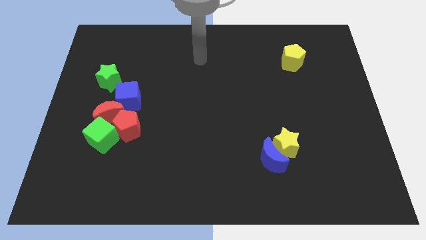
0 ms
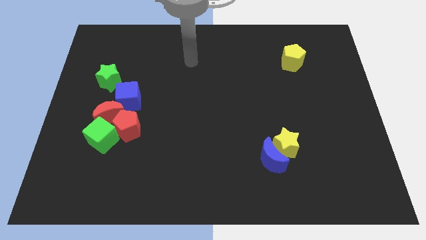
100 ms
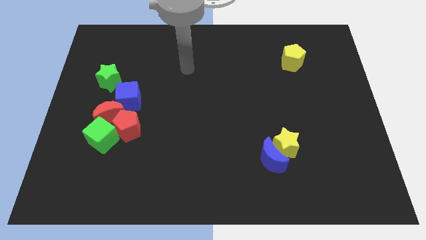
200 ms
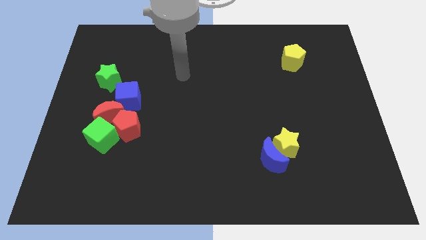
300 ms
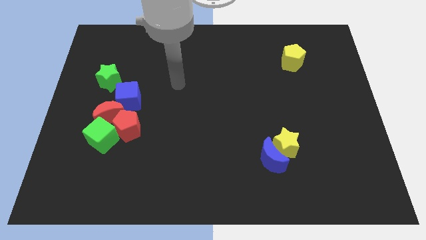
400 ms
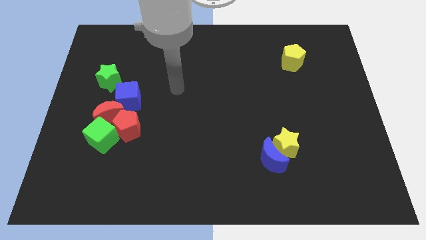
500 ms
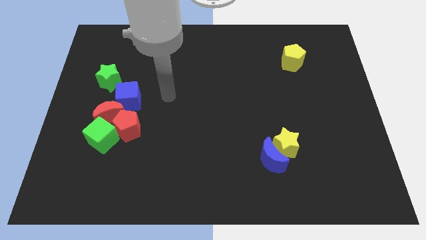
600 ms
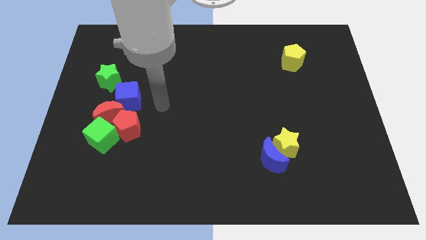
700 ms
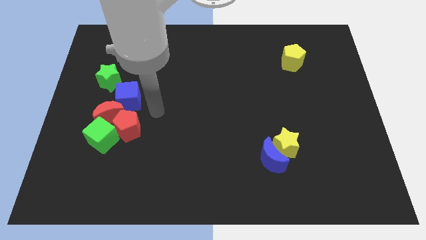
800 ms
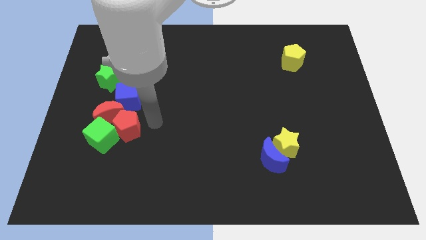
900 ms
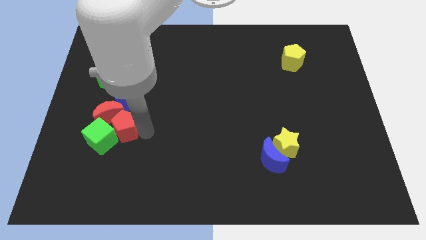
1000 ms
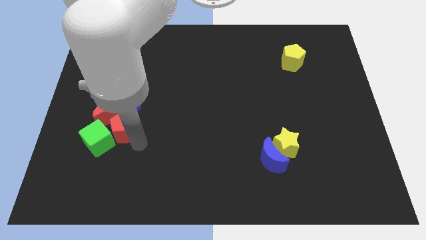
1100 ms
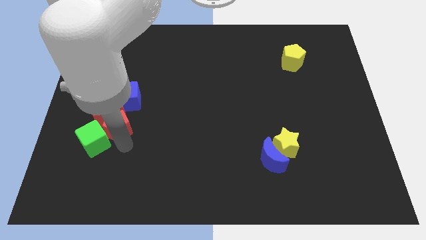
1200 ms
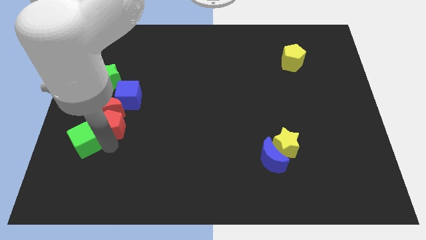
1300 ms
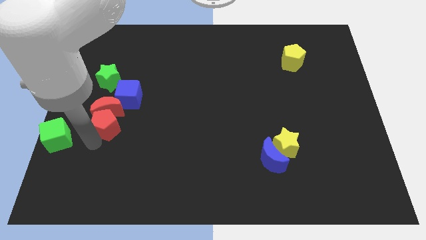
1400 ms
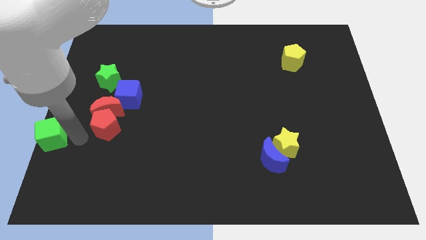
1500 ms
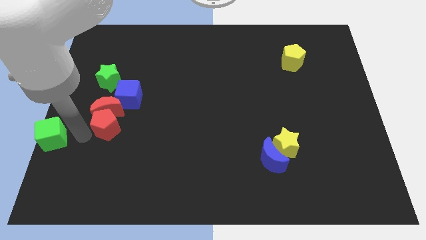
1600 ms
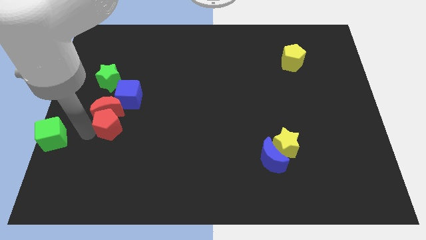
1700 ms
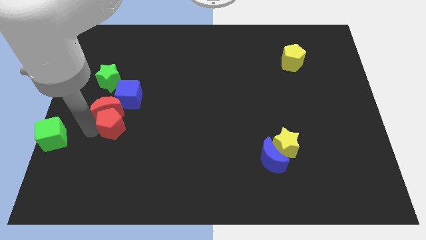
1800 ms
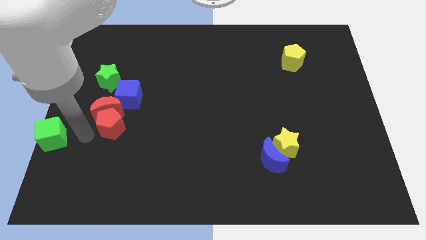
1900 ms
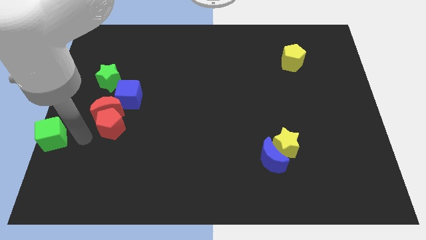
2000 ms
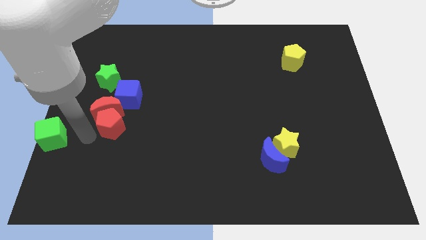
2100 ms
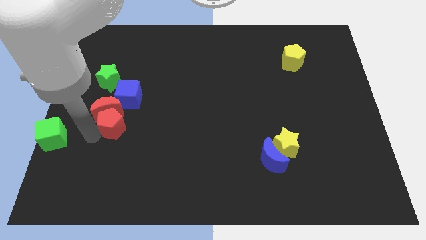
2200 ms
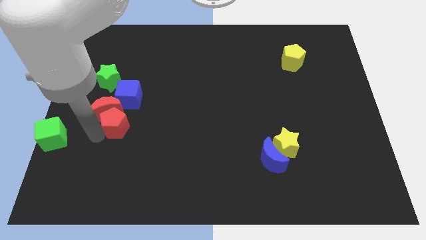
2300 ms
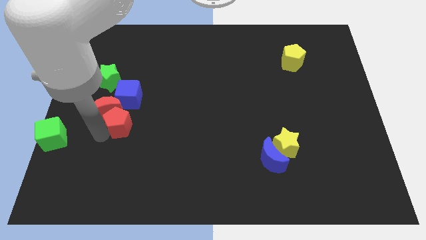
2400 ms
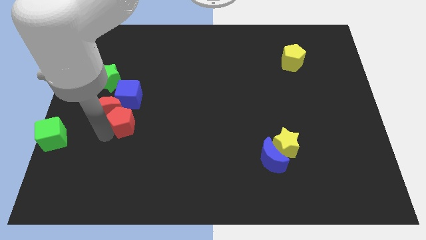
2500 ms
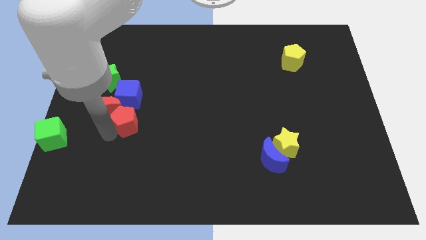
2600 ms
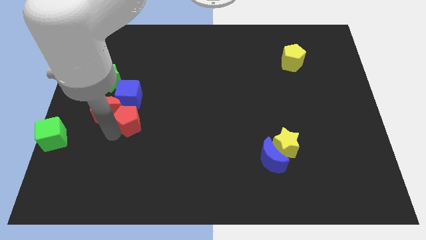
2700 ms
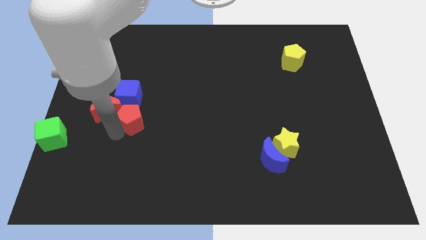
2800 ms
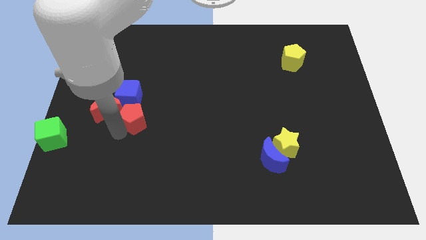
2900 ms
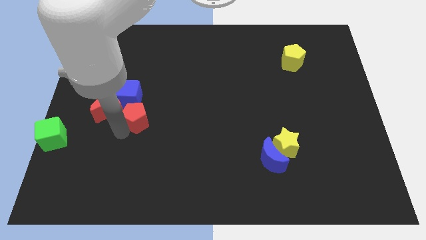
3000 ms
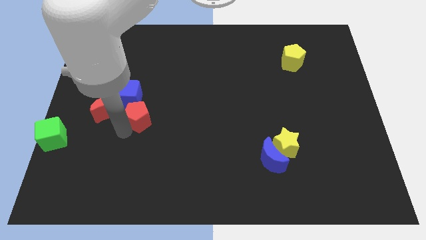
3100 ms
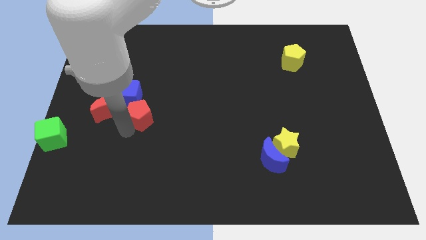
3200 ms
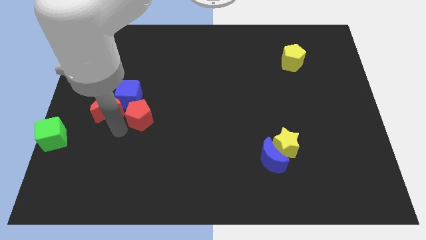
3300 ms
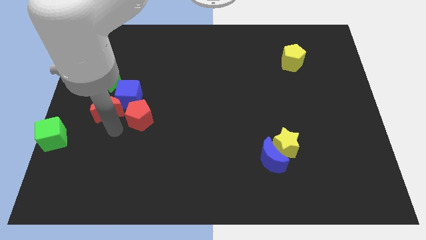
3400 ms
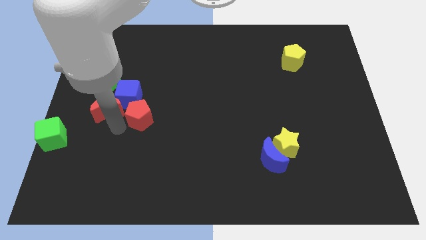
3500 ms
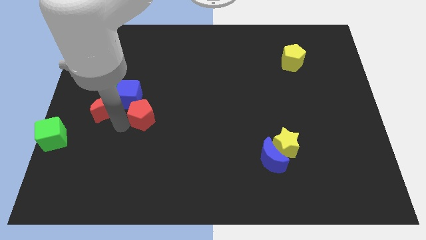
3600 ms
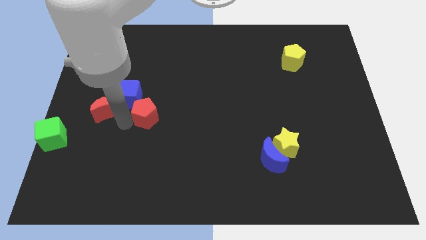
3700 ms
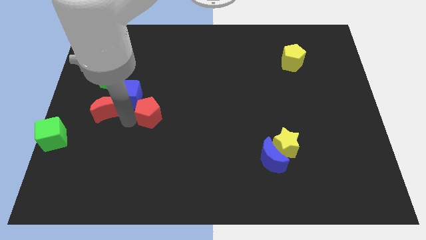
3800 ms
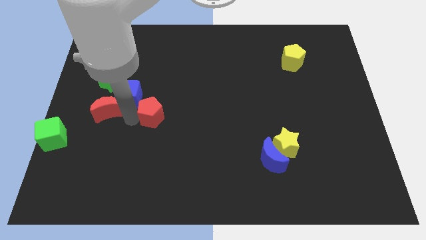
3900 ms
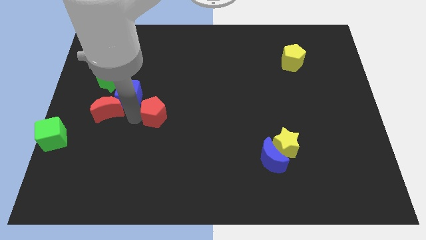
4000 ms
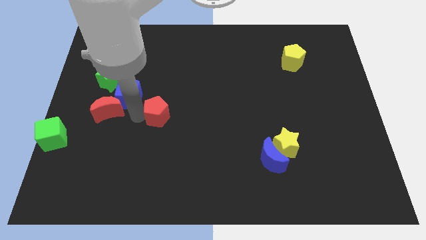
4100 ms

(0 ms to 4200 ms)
push the red pentagon upwards and to the right diagonally somewhat

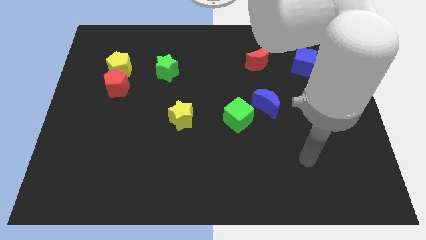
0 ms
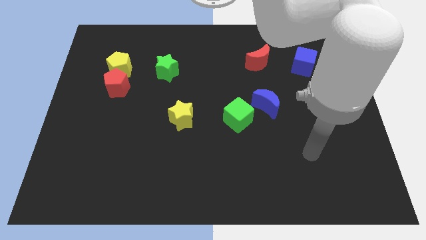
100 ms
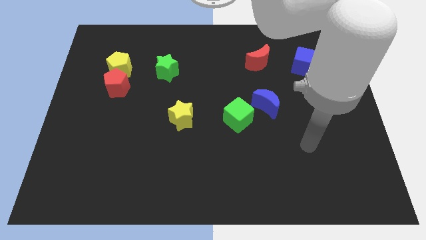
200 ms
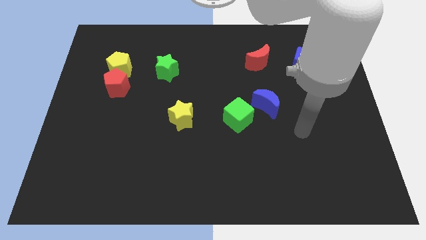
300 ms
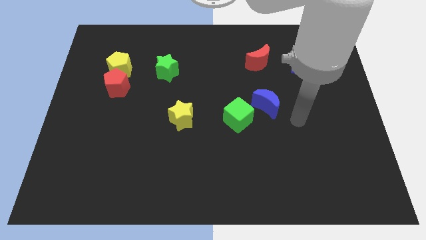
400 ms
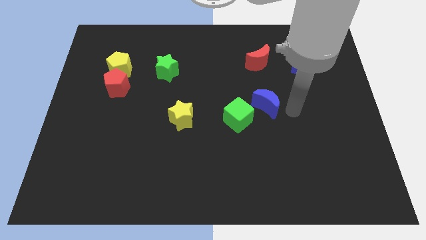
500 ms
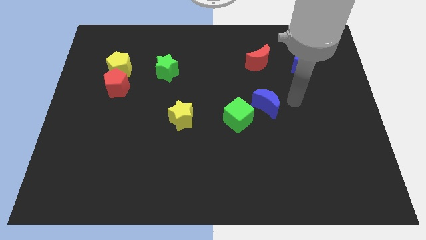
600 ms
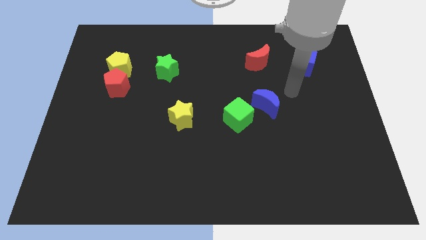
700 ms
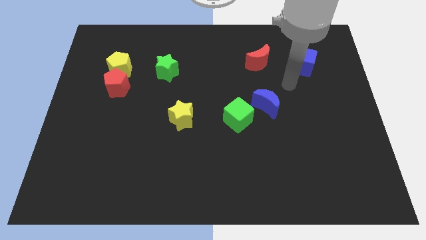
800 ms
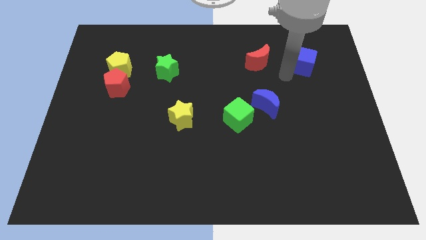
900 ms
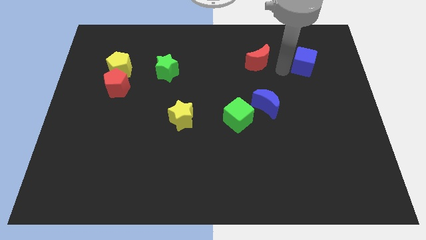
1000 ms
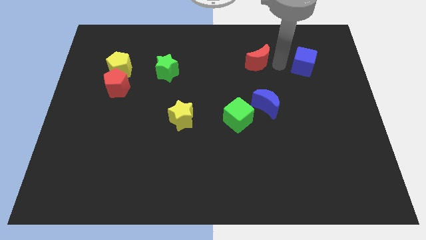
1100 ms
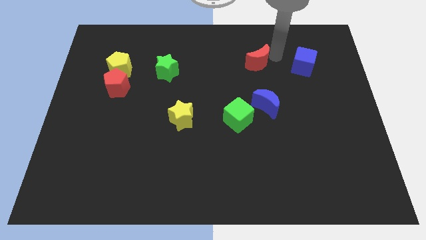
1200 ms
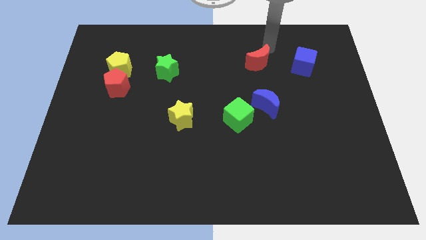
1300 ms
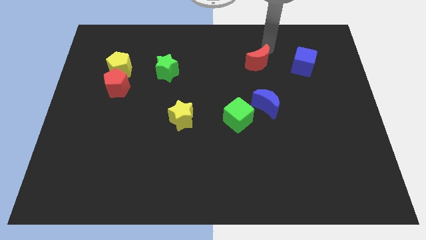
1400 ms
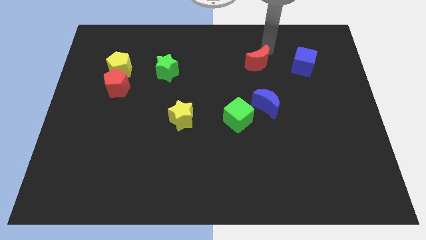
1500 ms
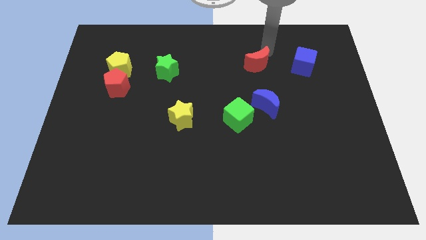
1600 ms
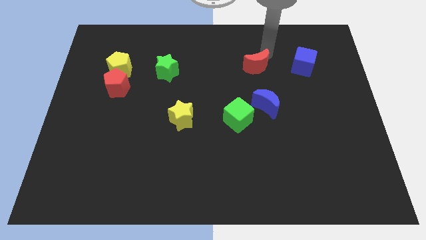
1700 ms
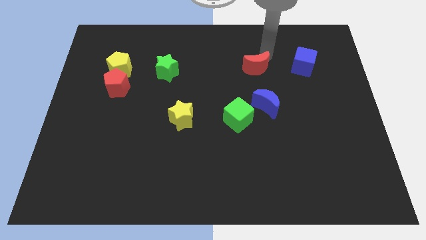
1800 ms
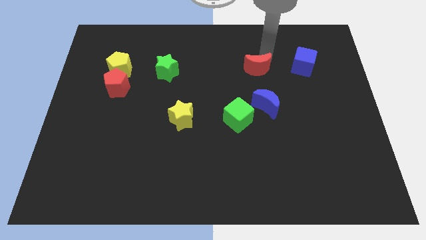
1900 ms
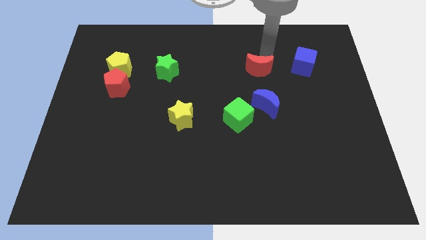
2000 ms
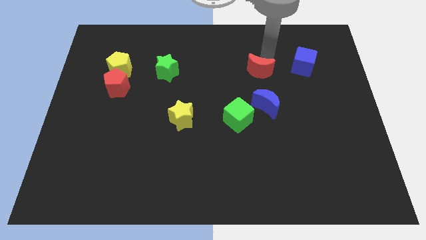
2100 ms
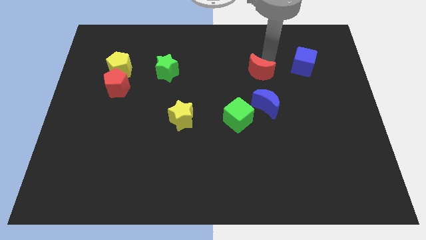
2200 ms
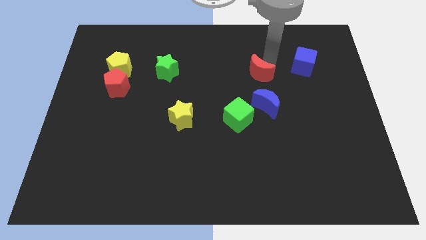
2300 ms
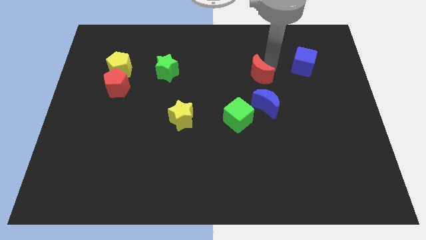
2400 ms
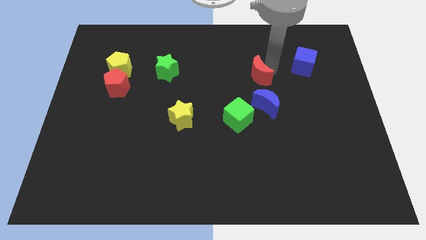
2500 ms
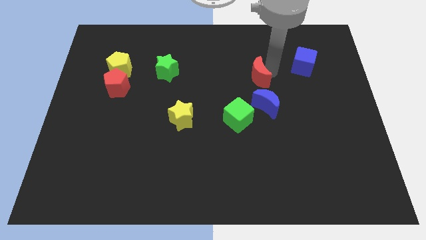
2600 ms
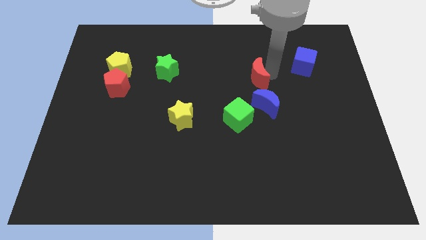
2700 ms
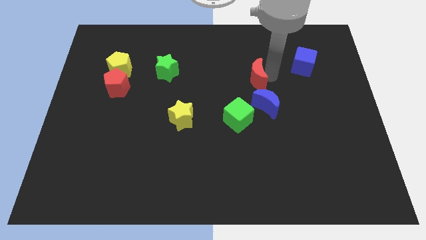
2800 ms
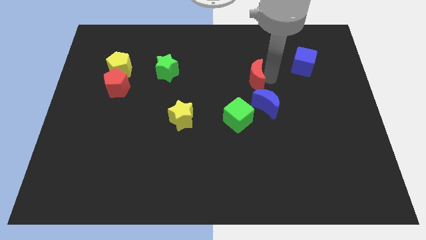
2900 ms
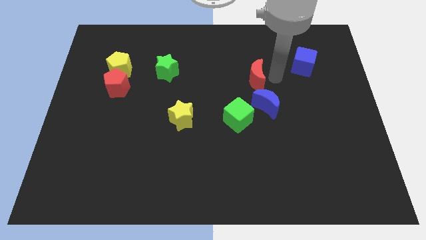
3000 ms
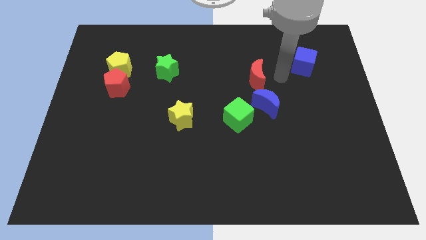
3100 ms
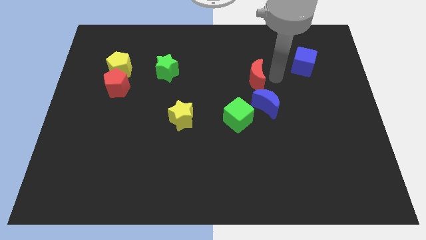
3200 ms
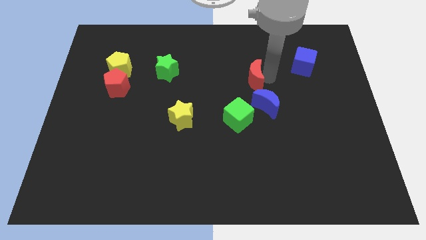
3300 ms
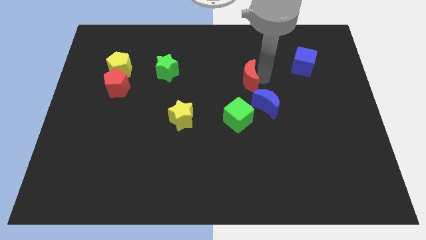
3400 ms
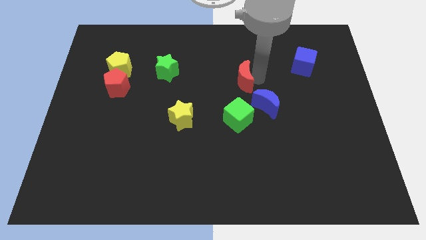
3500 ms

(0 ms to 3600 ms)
push the red moon slightly down and left diagonally
